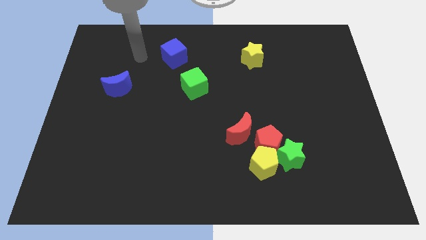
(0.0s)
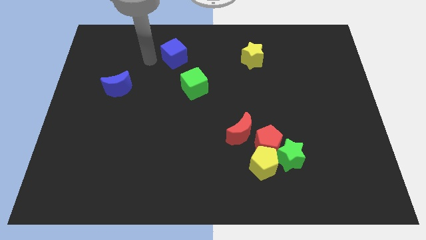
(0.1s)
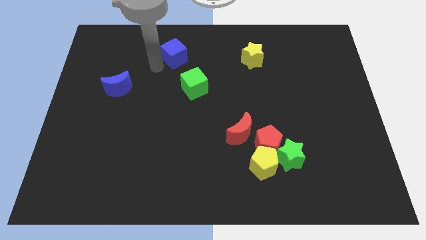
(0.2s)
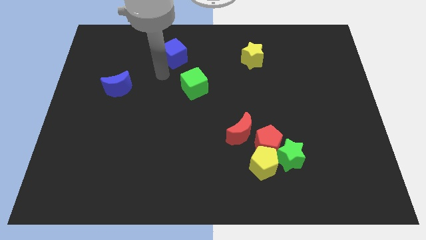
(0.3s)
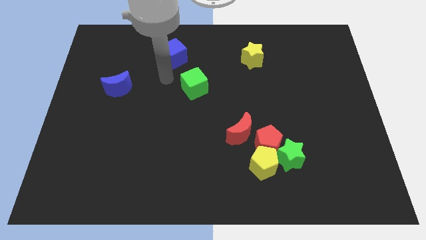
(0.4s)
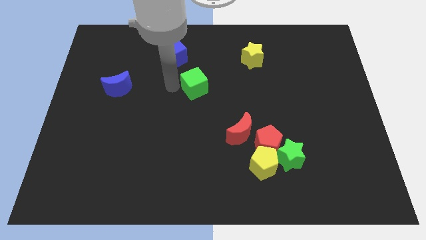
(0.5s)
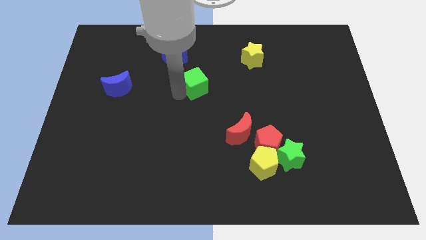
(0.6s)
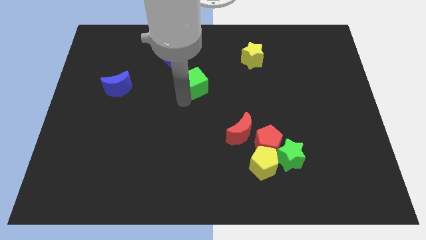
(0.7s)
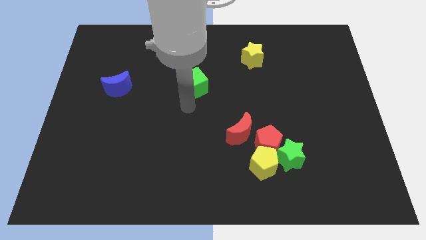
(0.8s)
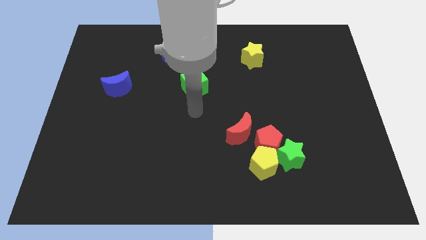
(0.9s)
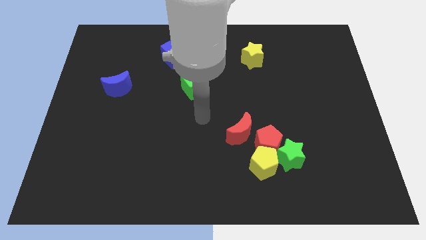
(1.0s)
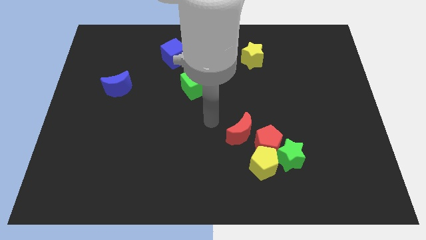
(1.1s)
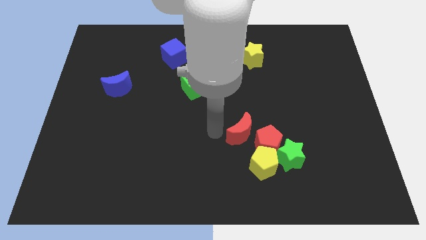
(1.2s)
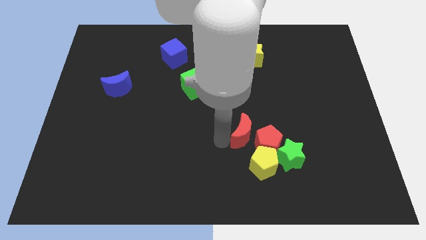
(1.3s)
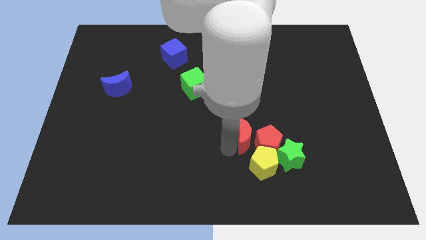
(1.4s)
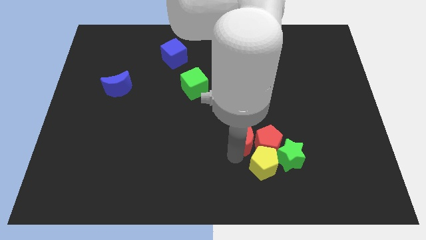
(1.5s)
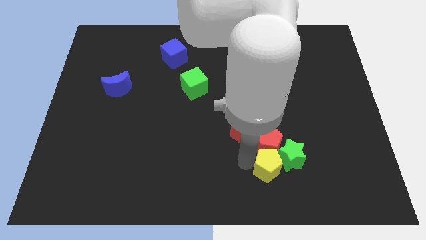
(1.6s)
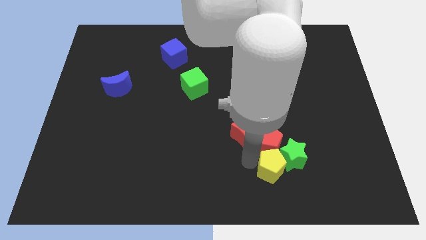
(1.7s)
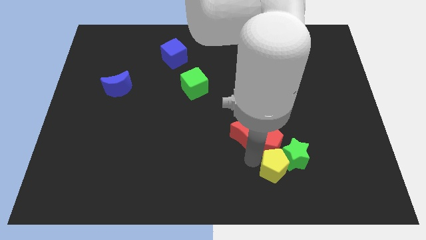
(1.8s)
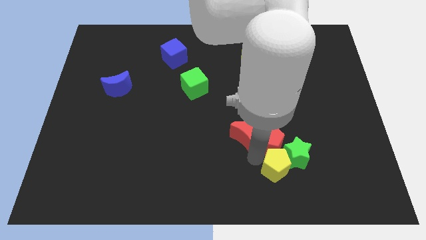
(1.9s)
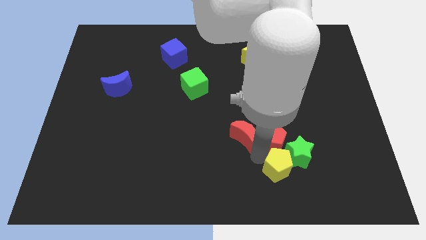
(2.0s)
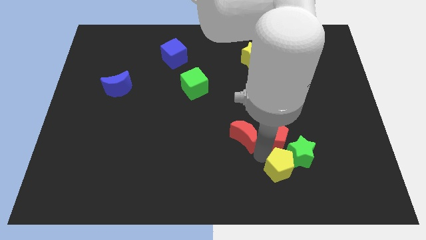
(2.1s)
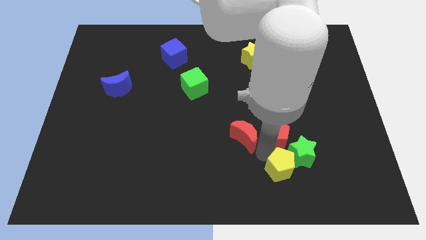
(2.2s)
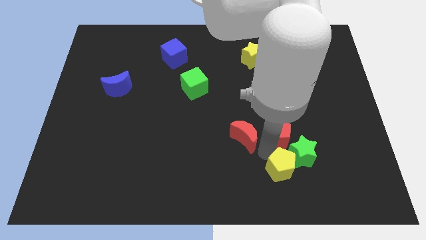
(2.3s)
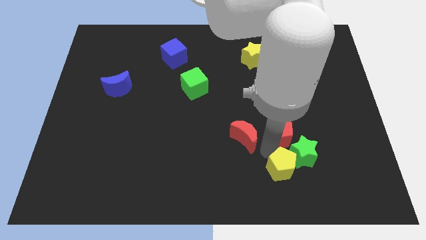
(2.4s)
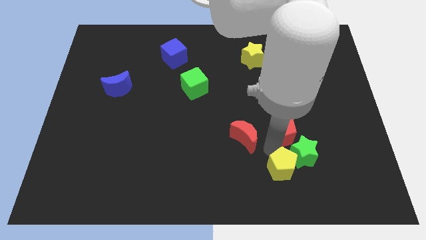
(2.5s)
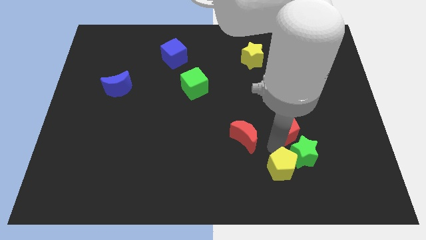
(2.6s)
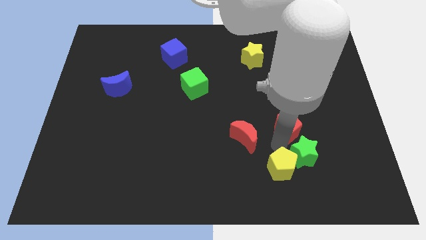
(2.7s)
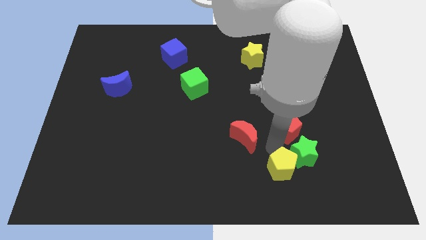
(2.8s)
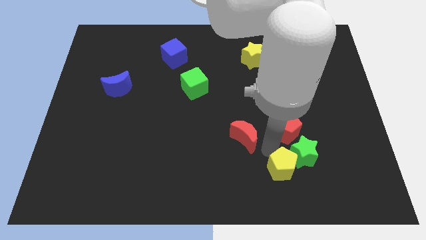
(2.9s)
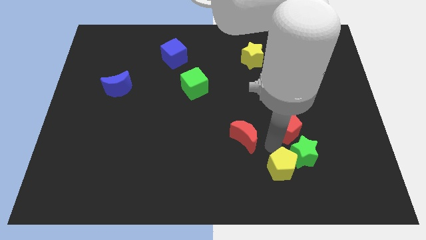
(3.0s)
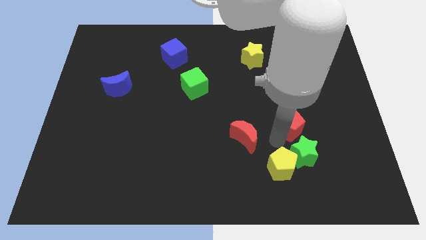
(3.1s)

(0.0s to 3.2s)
slide the red pentagon slightly diagonally upwards and to the right

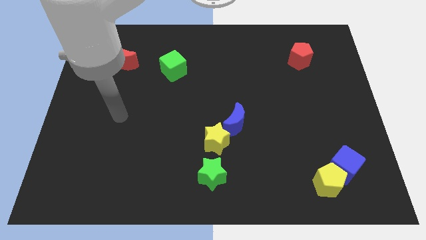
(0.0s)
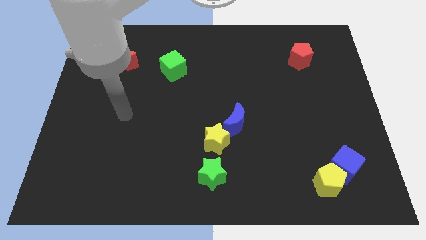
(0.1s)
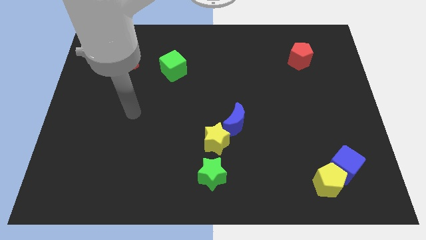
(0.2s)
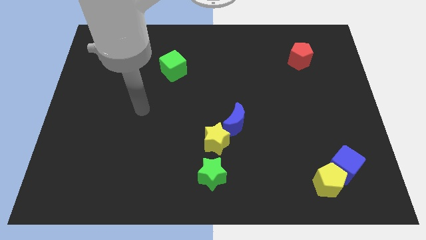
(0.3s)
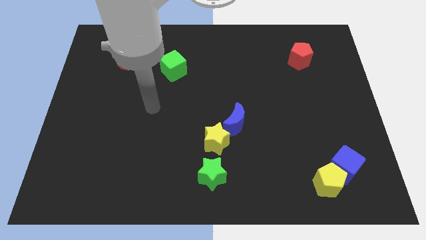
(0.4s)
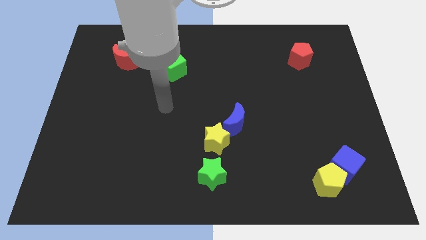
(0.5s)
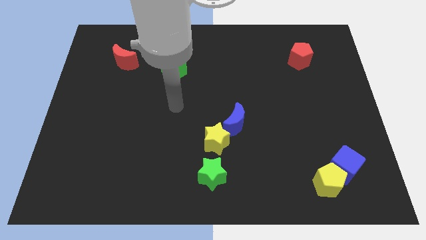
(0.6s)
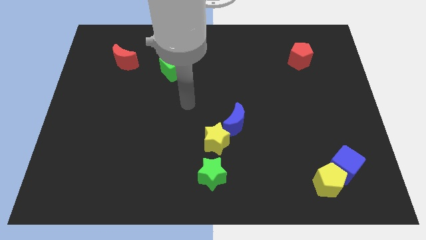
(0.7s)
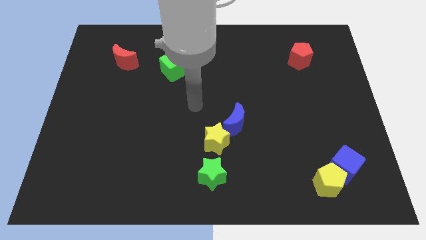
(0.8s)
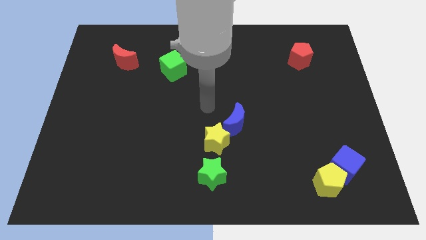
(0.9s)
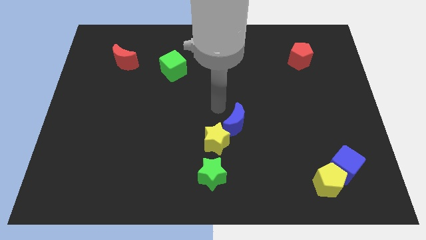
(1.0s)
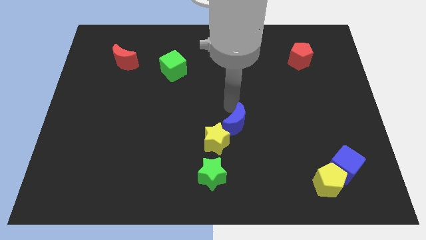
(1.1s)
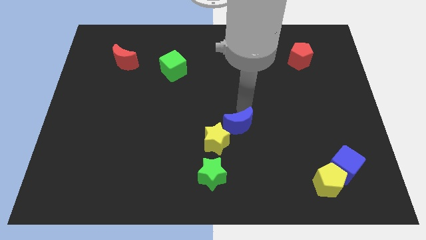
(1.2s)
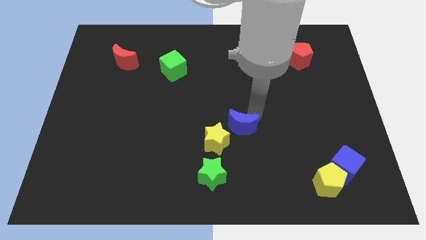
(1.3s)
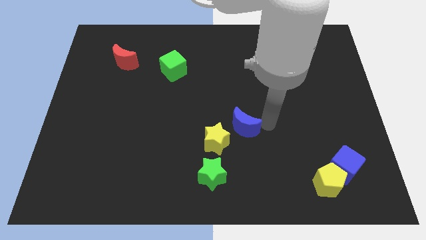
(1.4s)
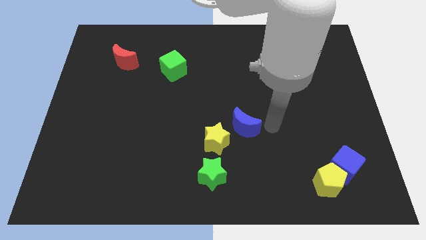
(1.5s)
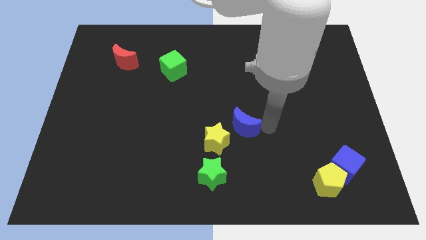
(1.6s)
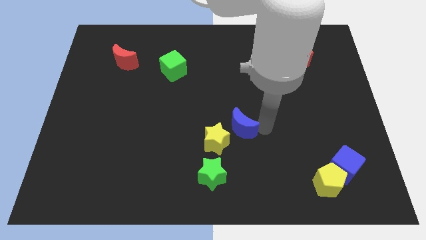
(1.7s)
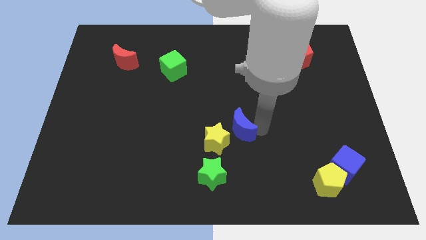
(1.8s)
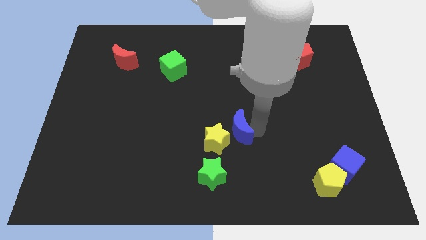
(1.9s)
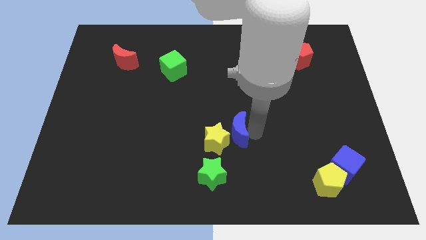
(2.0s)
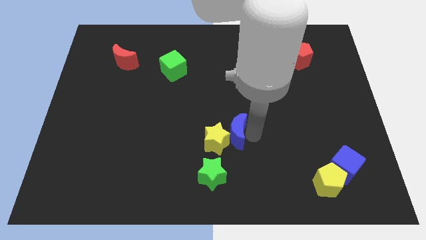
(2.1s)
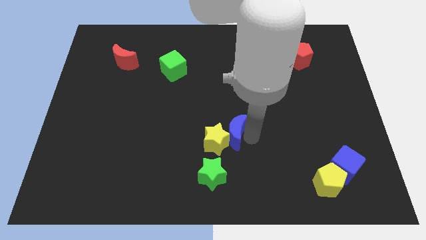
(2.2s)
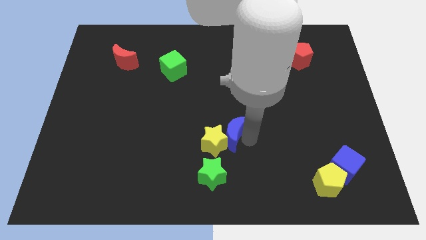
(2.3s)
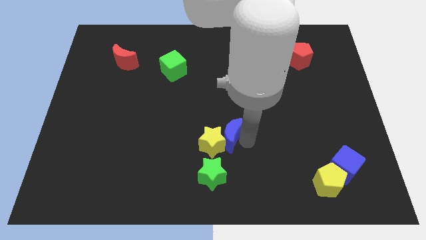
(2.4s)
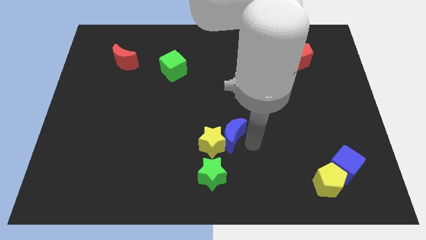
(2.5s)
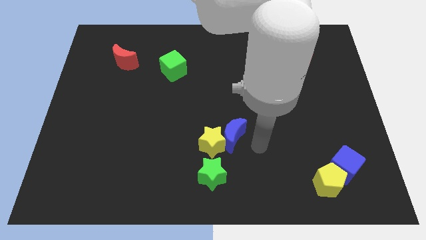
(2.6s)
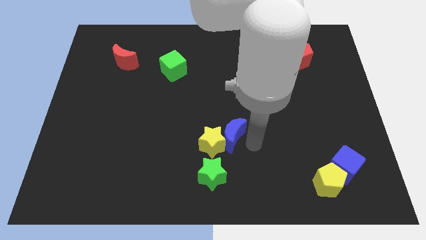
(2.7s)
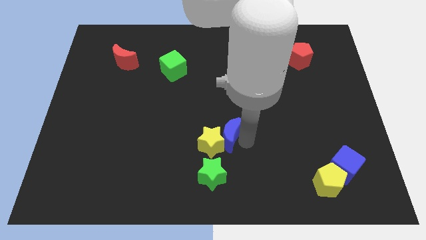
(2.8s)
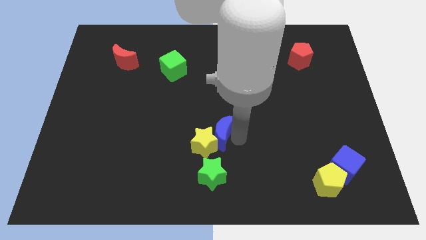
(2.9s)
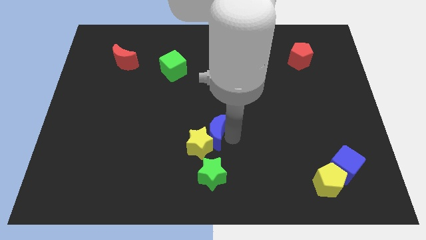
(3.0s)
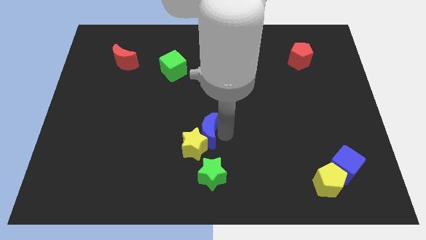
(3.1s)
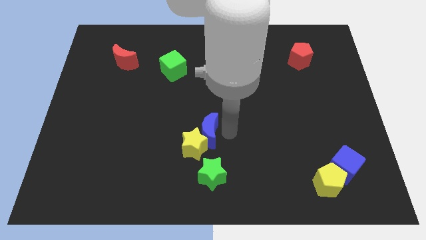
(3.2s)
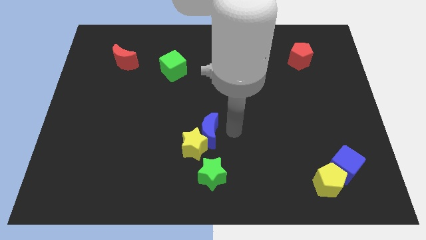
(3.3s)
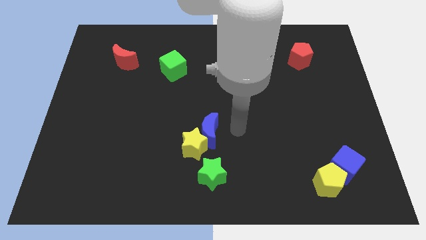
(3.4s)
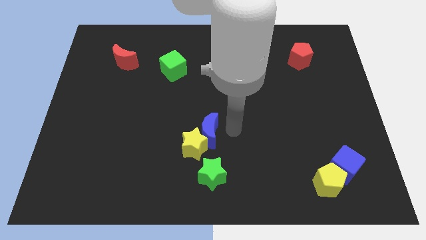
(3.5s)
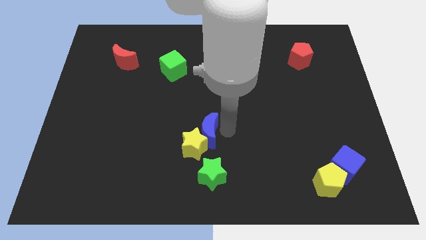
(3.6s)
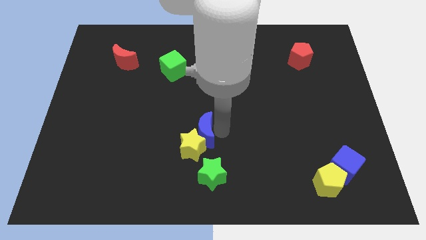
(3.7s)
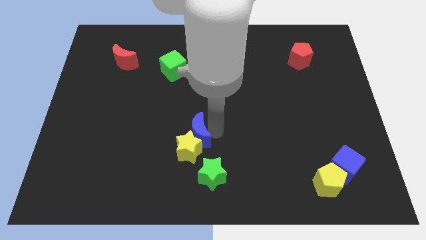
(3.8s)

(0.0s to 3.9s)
move the blue moon a bit downwards and to the left

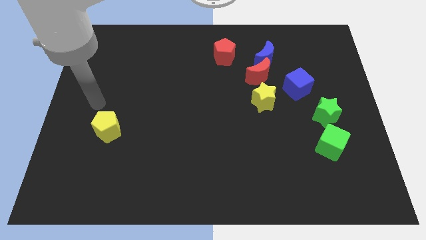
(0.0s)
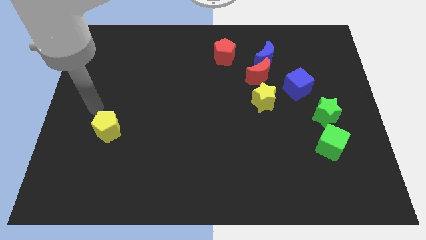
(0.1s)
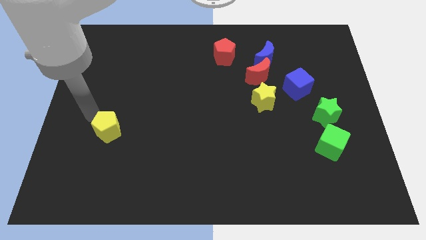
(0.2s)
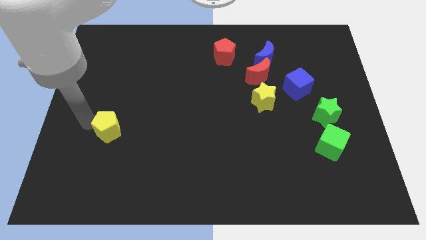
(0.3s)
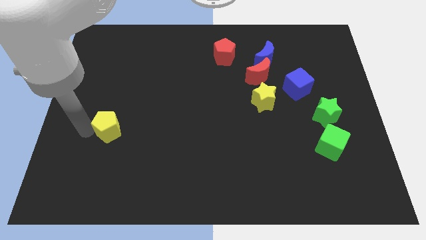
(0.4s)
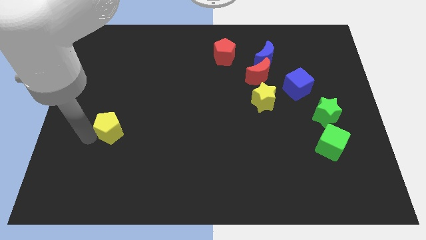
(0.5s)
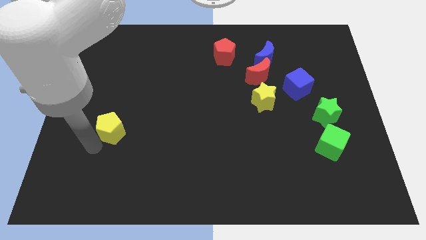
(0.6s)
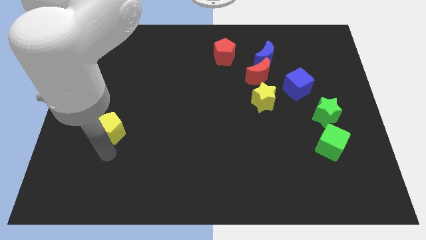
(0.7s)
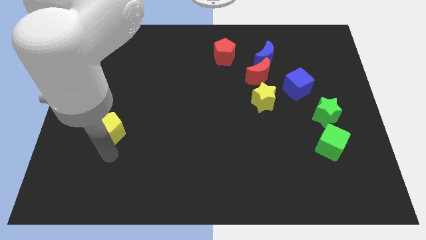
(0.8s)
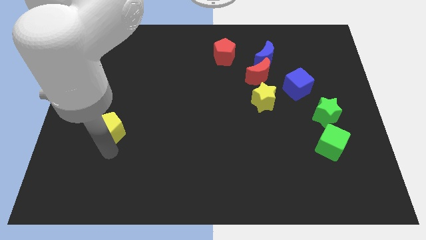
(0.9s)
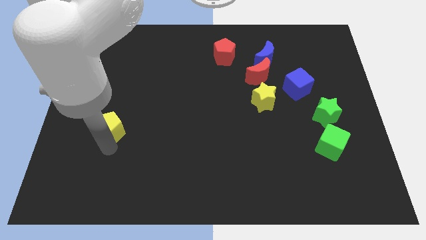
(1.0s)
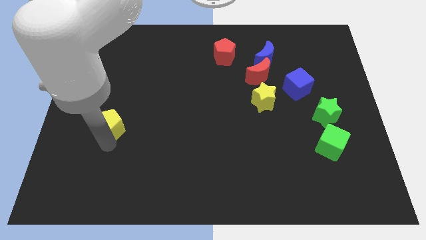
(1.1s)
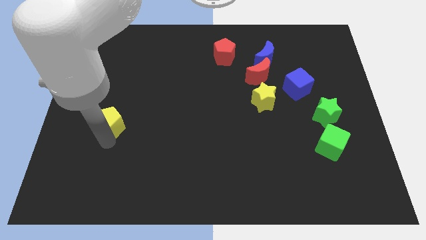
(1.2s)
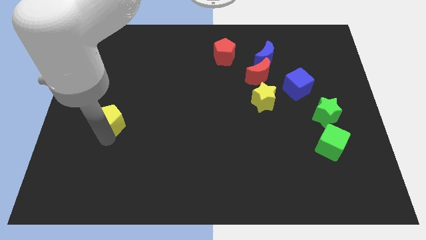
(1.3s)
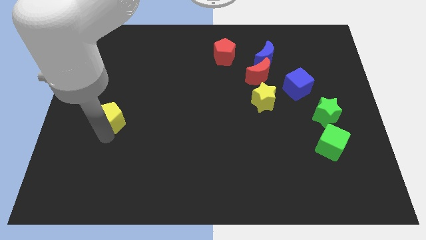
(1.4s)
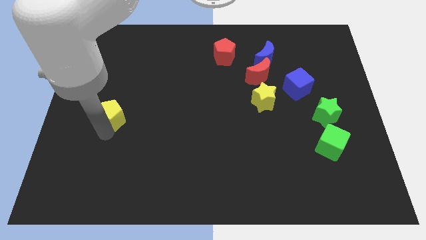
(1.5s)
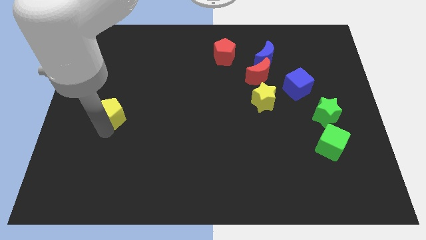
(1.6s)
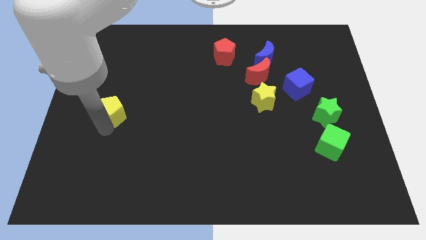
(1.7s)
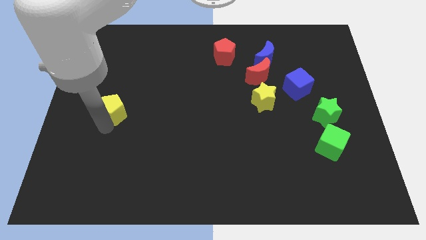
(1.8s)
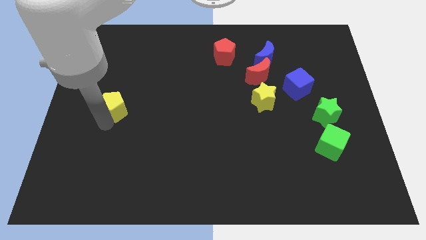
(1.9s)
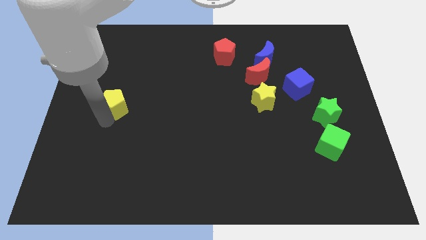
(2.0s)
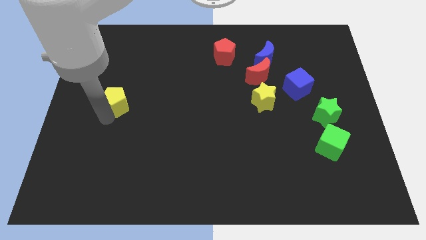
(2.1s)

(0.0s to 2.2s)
slightly push the yellow pentagon up
